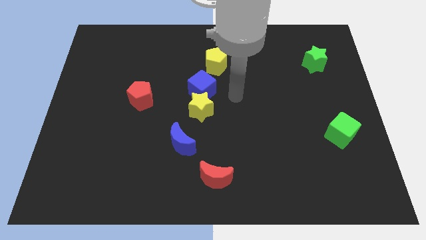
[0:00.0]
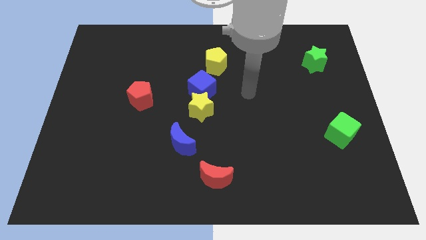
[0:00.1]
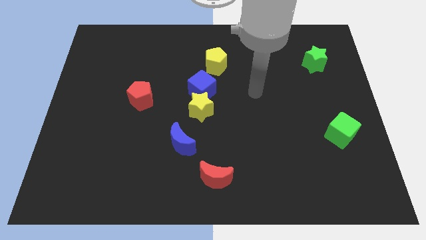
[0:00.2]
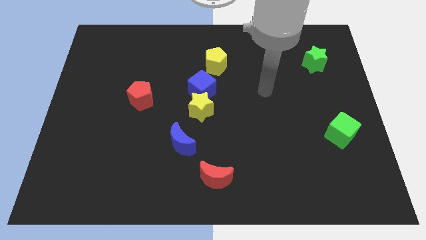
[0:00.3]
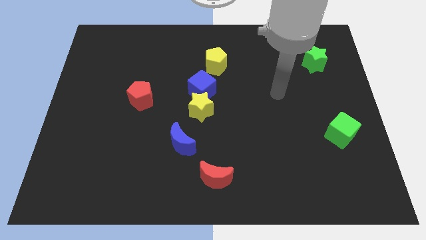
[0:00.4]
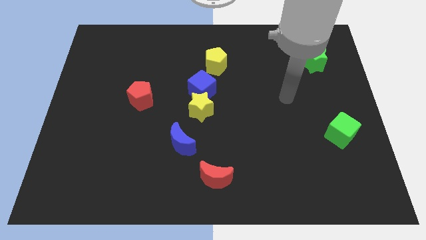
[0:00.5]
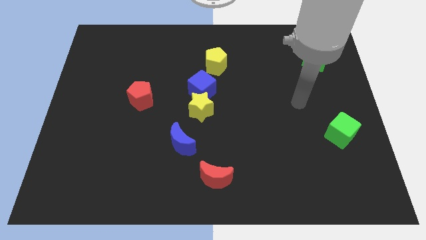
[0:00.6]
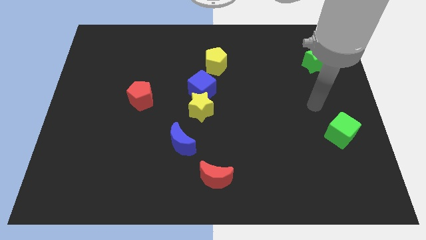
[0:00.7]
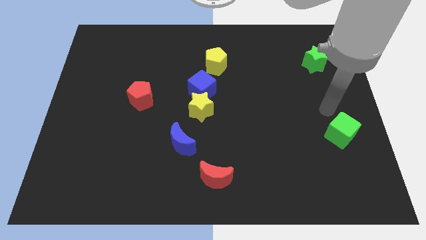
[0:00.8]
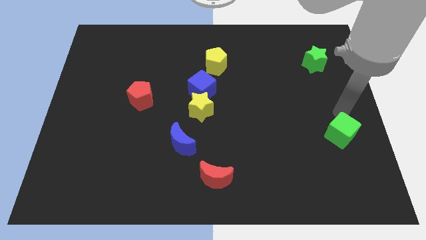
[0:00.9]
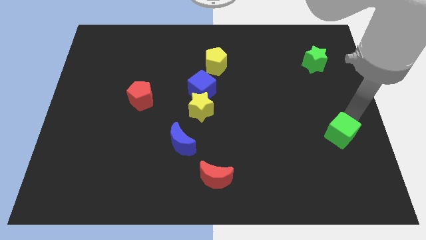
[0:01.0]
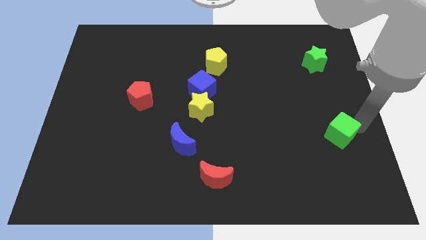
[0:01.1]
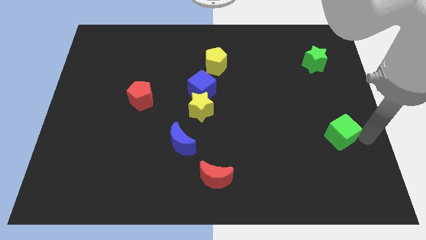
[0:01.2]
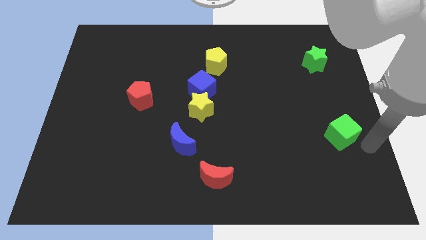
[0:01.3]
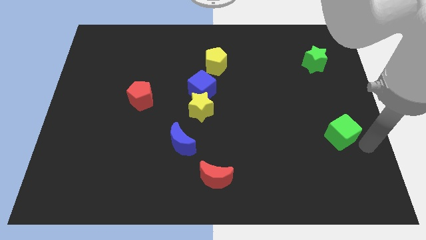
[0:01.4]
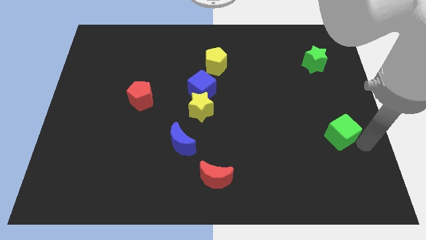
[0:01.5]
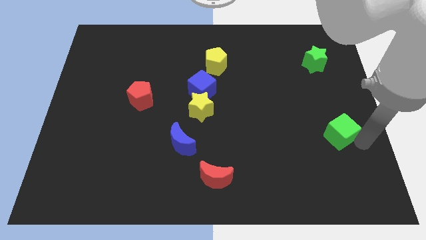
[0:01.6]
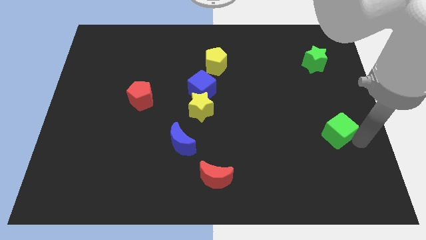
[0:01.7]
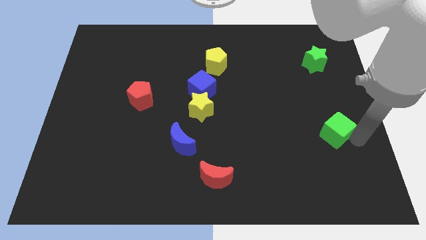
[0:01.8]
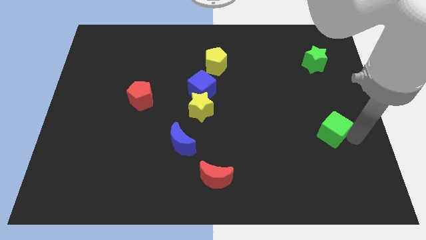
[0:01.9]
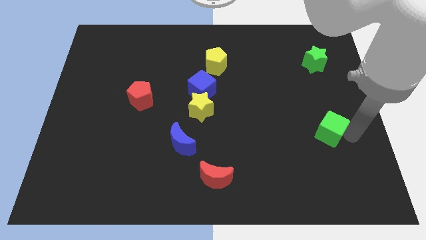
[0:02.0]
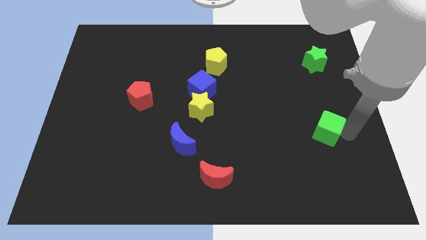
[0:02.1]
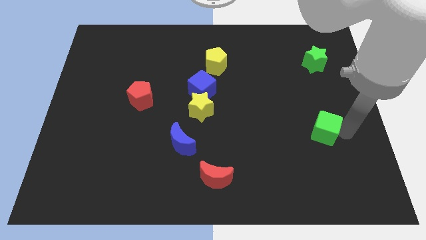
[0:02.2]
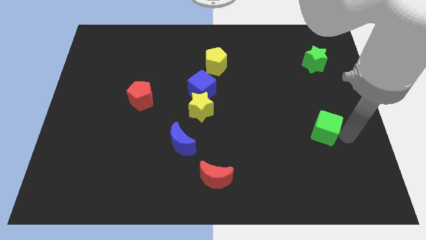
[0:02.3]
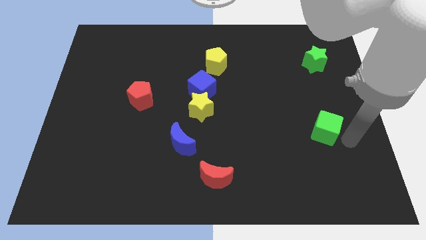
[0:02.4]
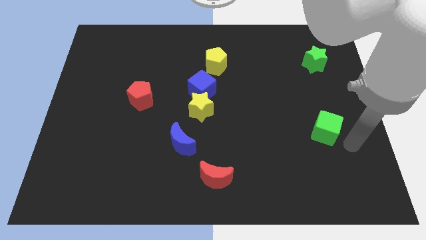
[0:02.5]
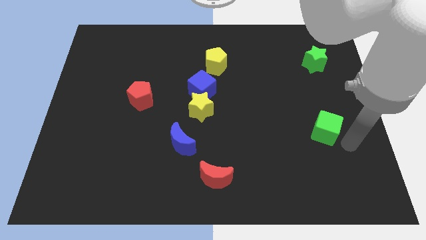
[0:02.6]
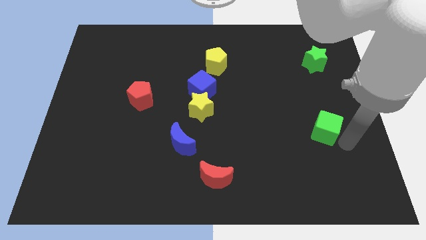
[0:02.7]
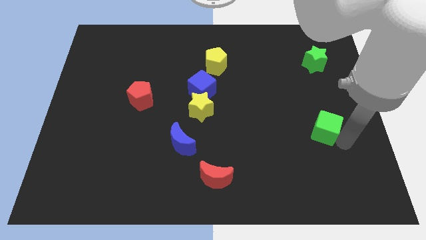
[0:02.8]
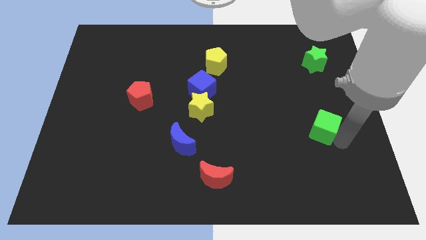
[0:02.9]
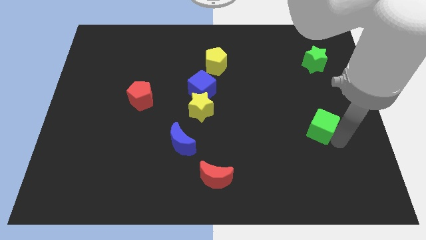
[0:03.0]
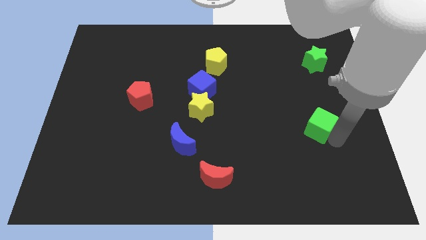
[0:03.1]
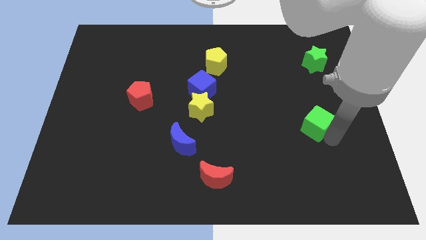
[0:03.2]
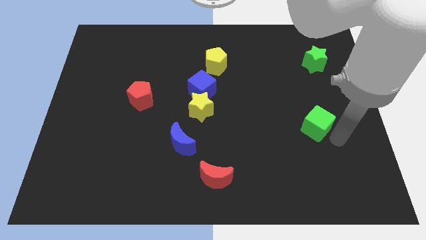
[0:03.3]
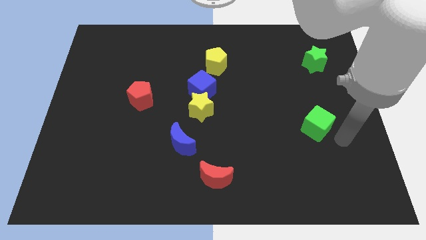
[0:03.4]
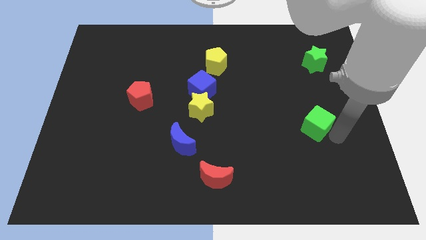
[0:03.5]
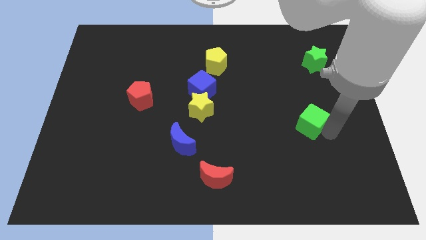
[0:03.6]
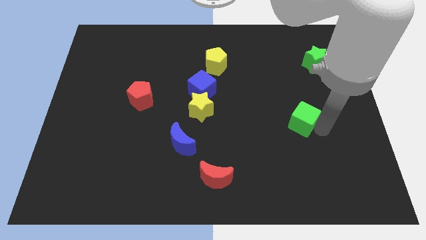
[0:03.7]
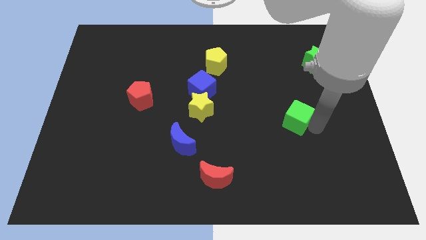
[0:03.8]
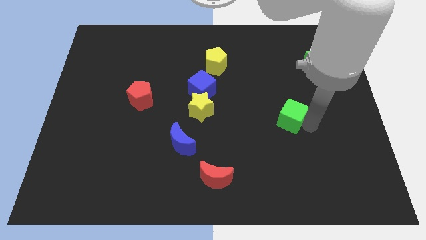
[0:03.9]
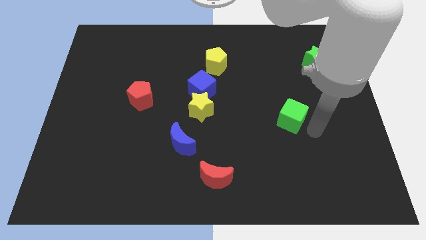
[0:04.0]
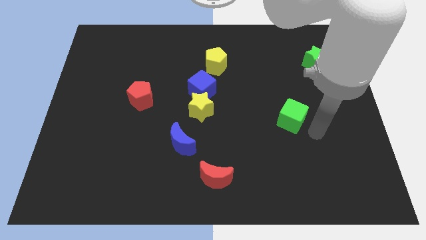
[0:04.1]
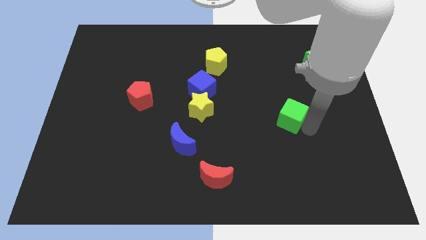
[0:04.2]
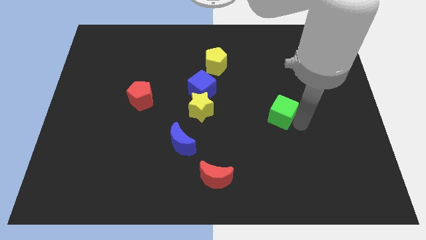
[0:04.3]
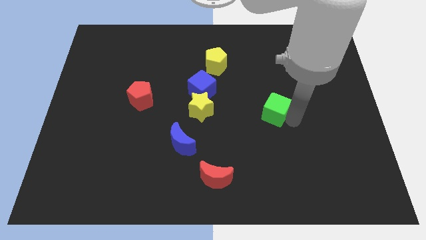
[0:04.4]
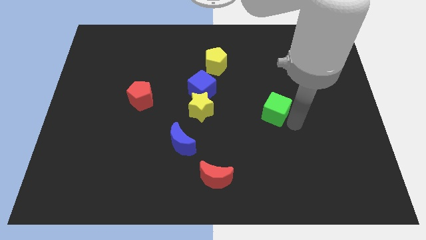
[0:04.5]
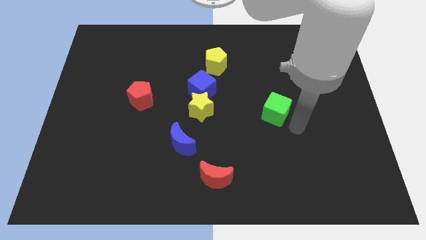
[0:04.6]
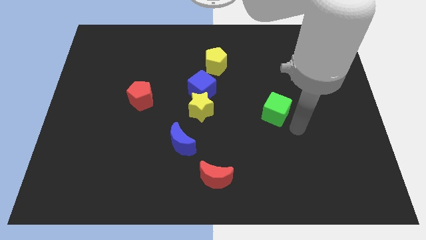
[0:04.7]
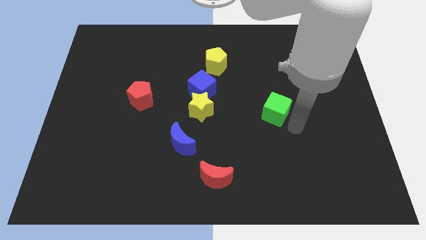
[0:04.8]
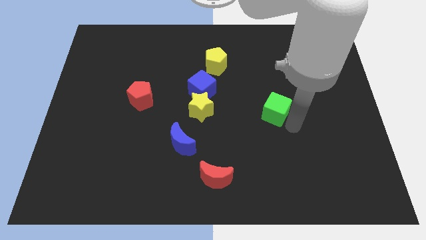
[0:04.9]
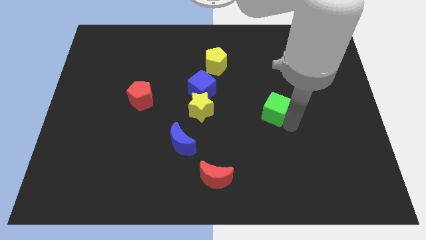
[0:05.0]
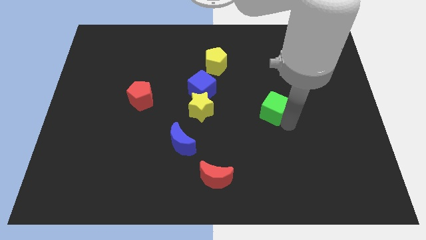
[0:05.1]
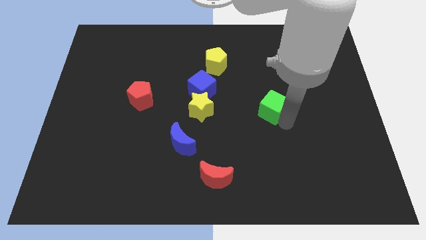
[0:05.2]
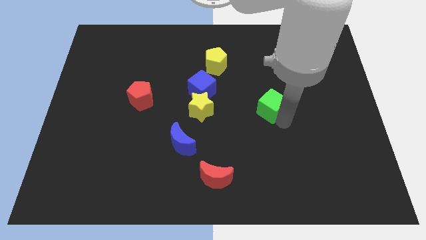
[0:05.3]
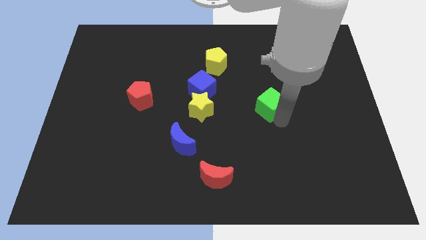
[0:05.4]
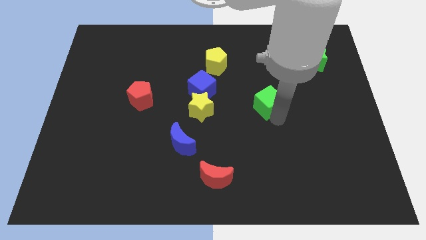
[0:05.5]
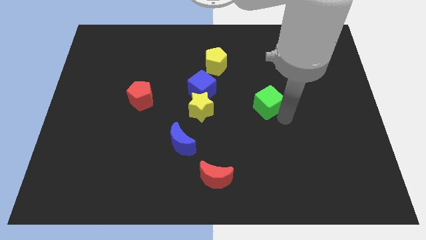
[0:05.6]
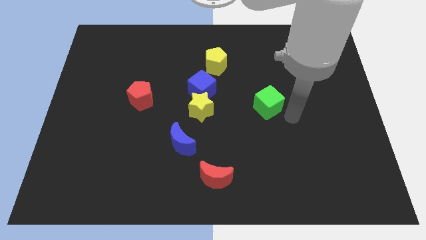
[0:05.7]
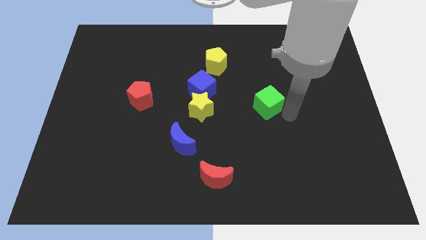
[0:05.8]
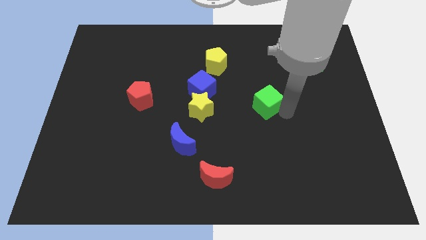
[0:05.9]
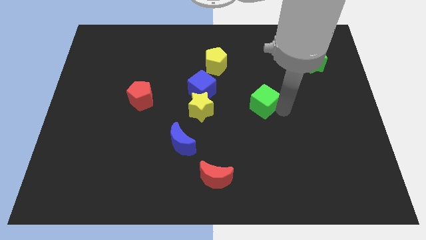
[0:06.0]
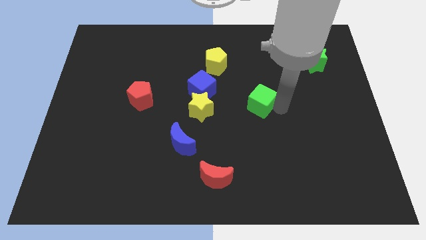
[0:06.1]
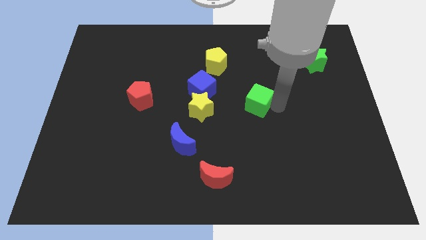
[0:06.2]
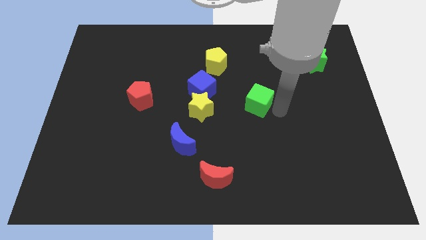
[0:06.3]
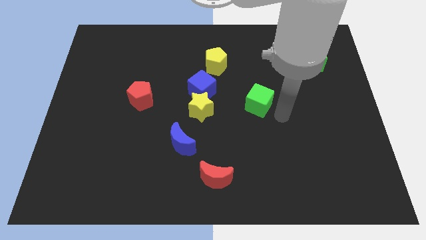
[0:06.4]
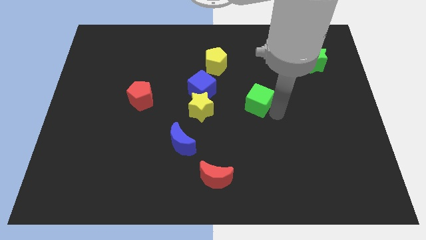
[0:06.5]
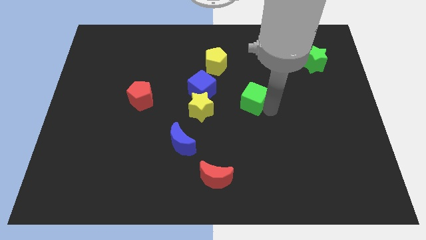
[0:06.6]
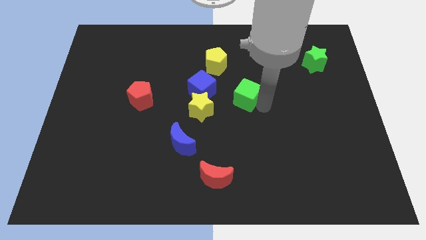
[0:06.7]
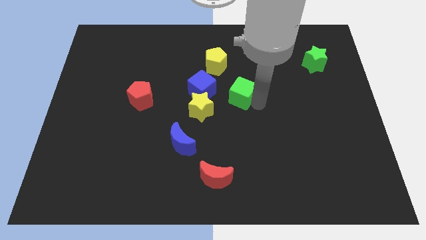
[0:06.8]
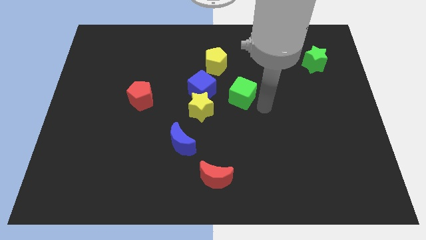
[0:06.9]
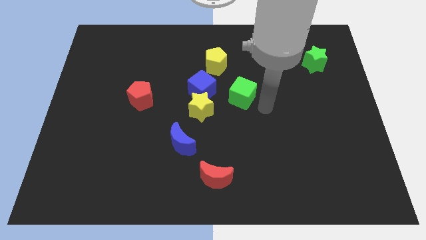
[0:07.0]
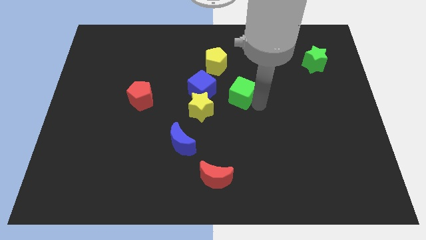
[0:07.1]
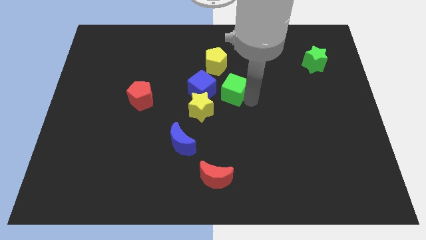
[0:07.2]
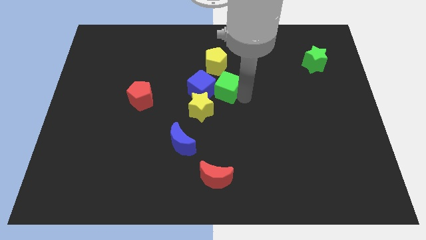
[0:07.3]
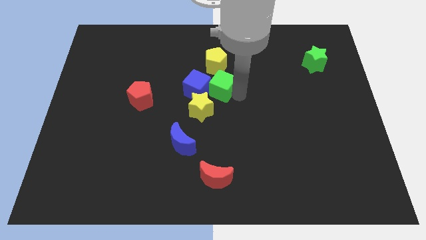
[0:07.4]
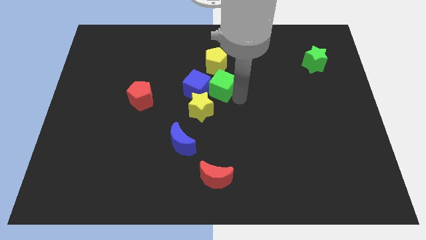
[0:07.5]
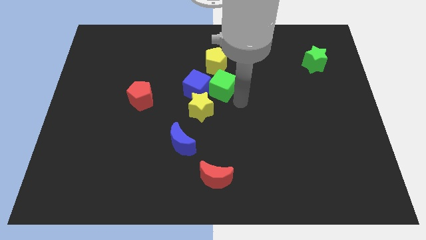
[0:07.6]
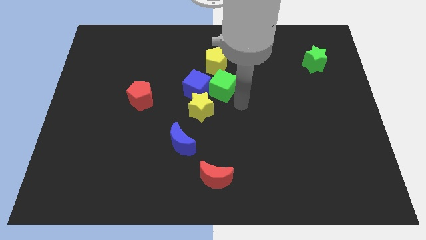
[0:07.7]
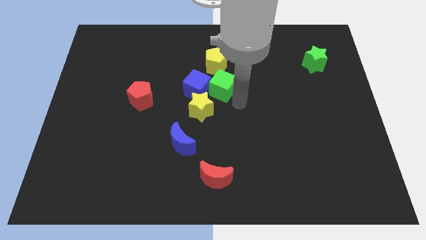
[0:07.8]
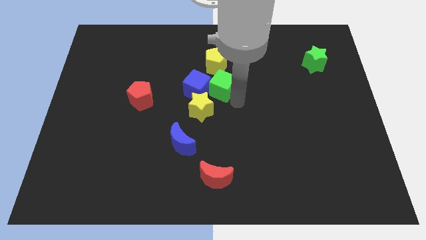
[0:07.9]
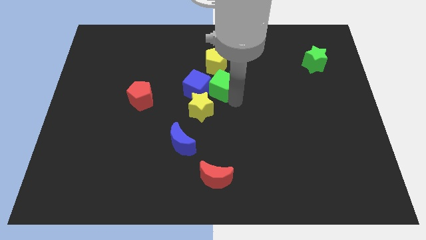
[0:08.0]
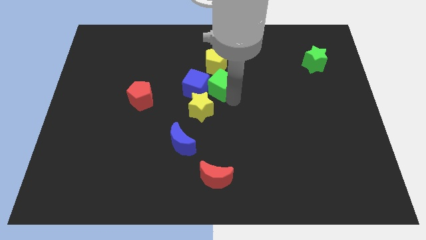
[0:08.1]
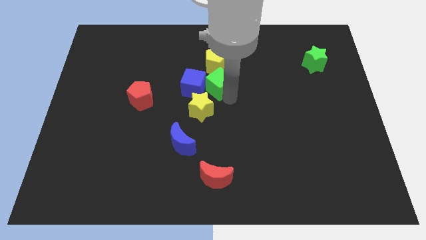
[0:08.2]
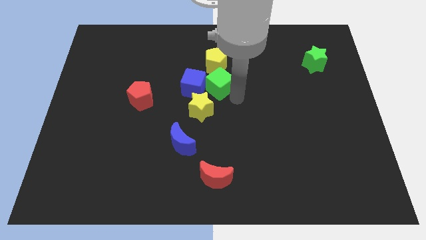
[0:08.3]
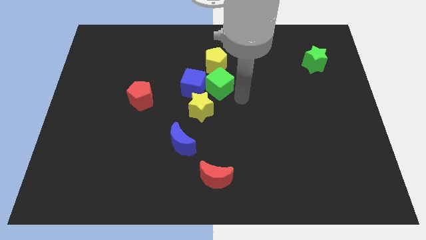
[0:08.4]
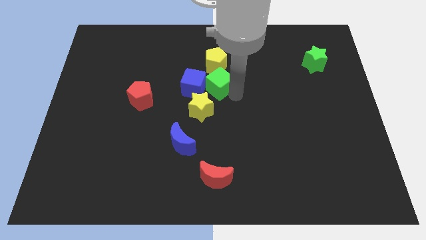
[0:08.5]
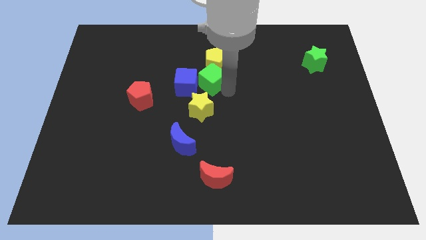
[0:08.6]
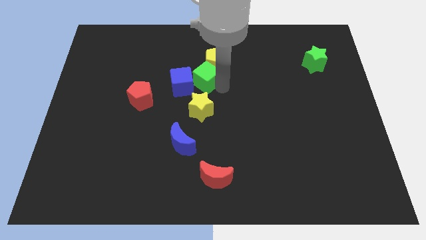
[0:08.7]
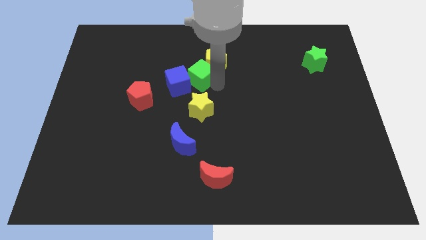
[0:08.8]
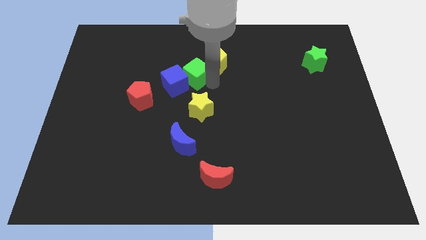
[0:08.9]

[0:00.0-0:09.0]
move the green cube left of the yellow pentagon
